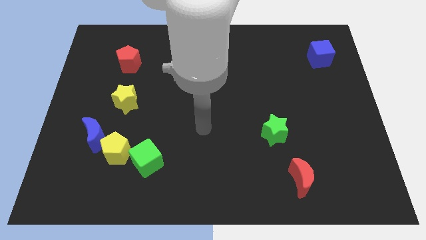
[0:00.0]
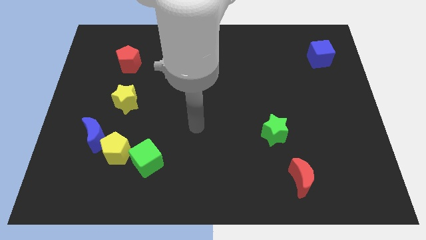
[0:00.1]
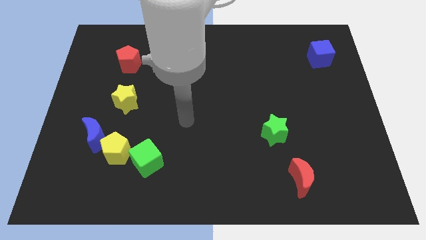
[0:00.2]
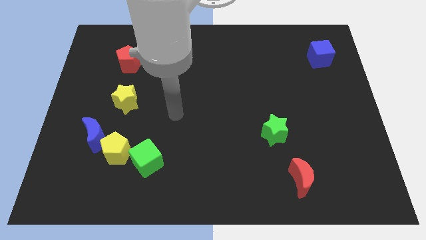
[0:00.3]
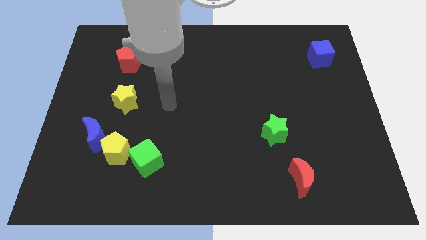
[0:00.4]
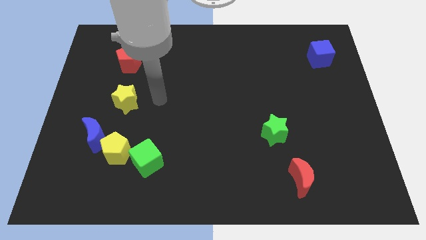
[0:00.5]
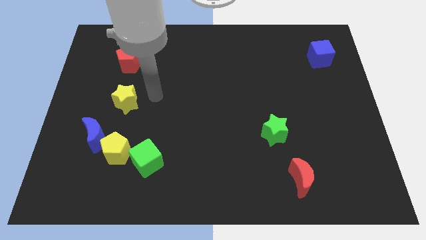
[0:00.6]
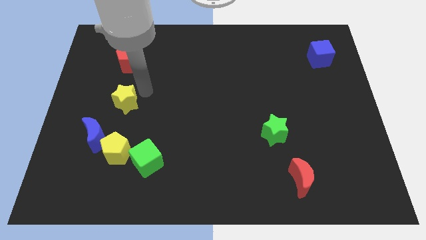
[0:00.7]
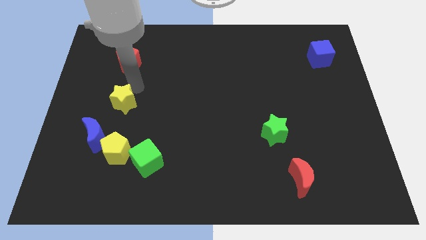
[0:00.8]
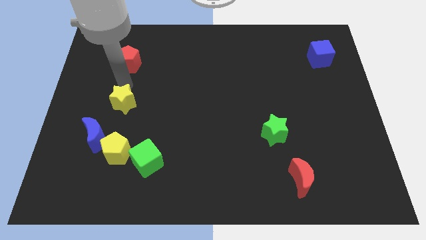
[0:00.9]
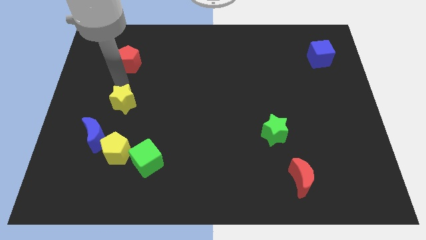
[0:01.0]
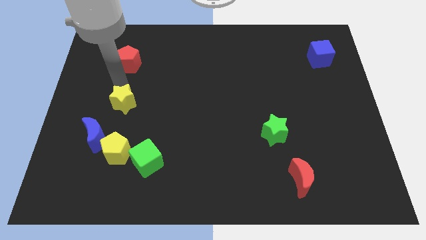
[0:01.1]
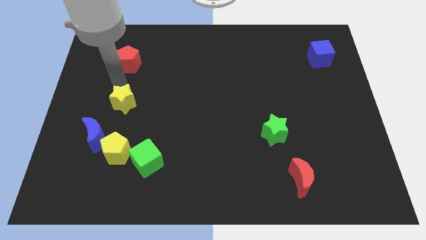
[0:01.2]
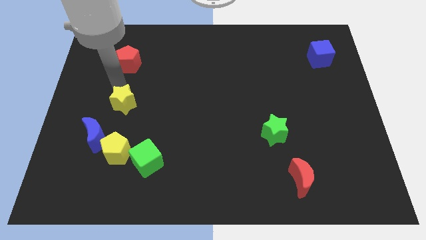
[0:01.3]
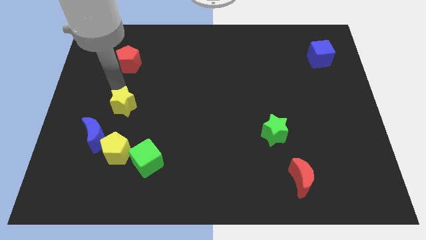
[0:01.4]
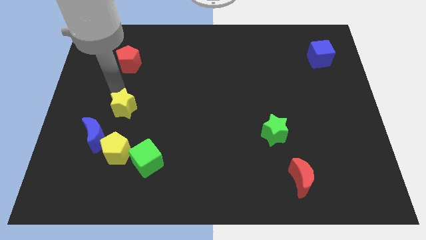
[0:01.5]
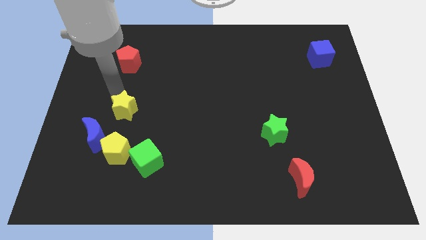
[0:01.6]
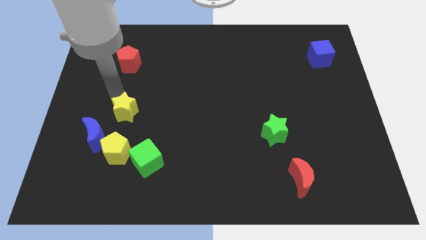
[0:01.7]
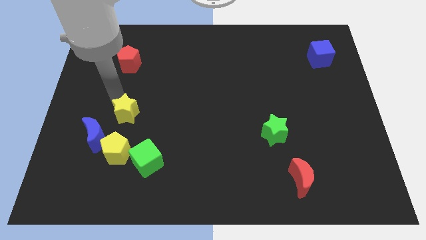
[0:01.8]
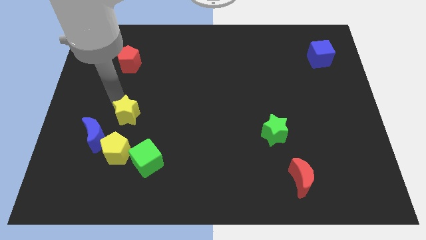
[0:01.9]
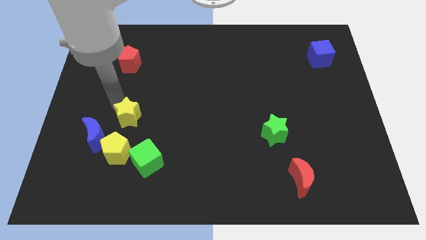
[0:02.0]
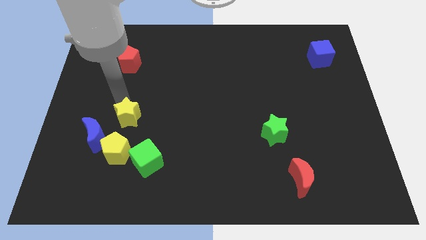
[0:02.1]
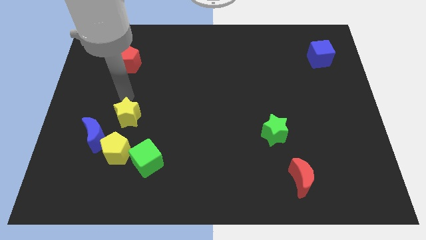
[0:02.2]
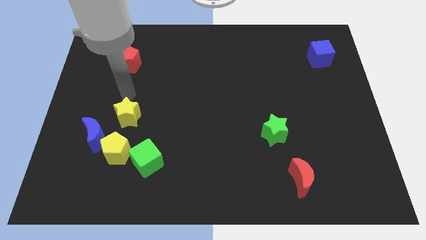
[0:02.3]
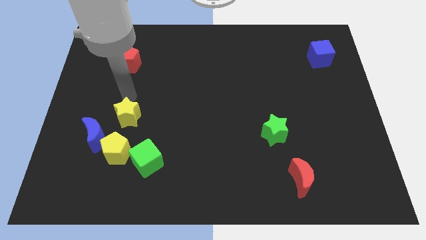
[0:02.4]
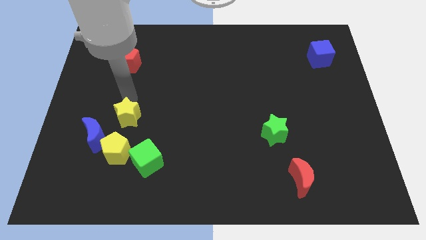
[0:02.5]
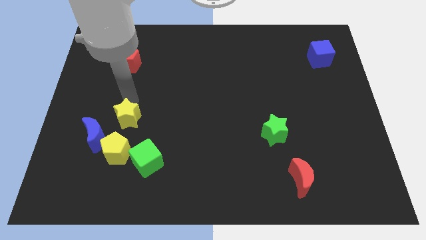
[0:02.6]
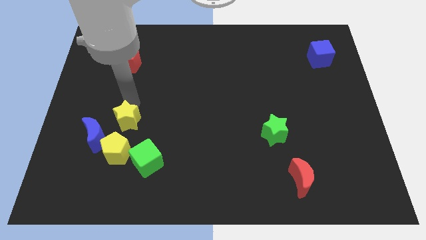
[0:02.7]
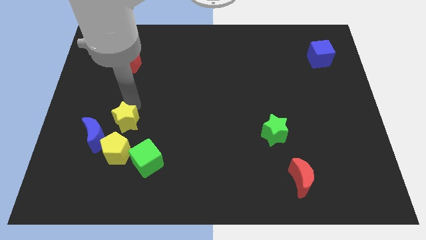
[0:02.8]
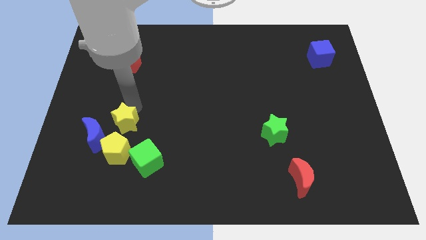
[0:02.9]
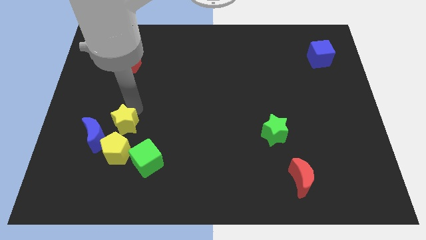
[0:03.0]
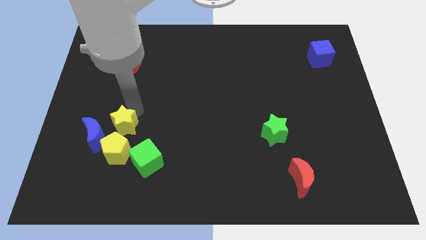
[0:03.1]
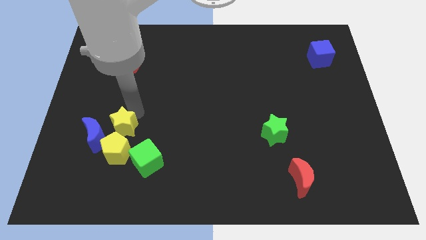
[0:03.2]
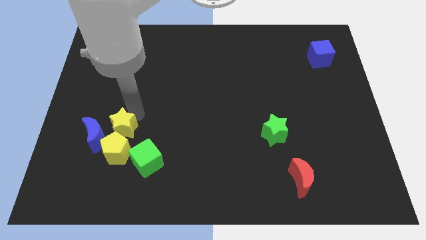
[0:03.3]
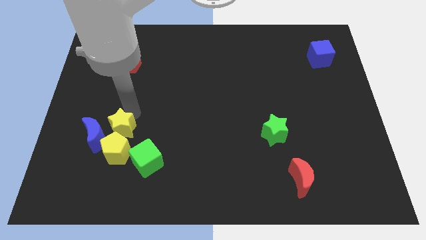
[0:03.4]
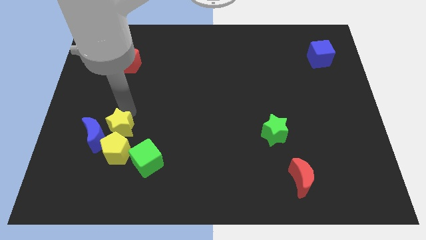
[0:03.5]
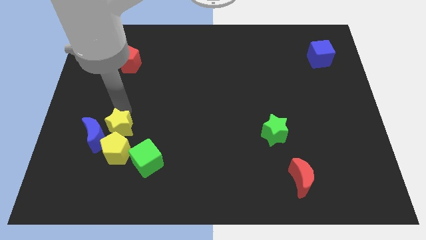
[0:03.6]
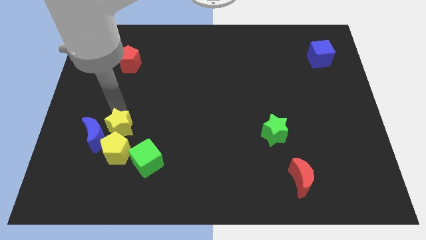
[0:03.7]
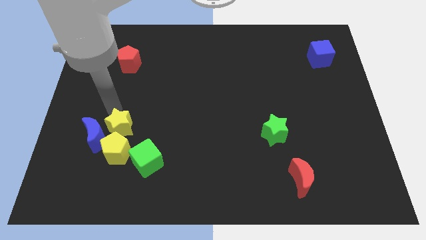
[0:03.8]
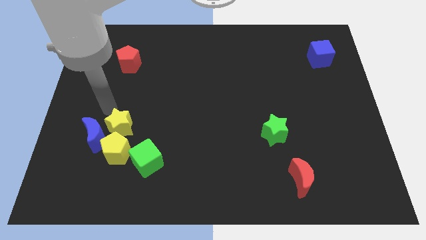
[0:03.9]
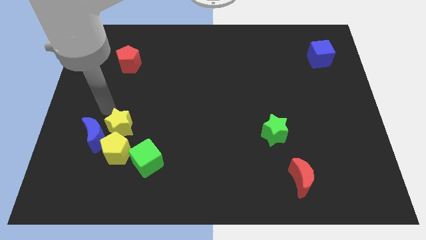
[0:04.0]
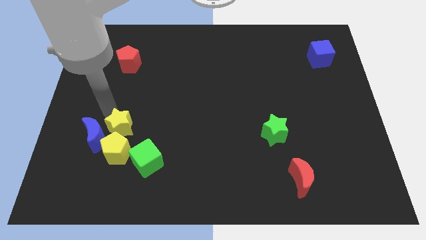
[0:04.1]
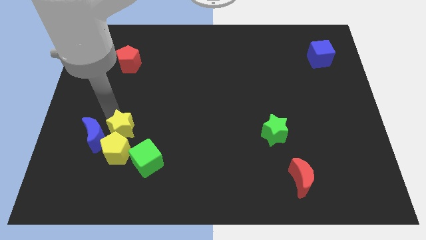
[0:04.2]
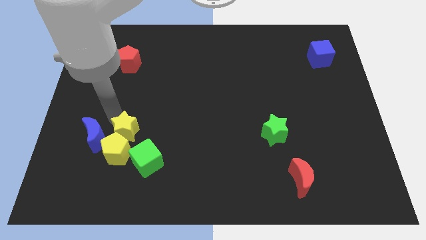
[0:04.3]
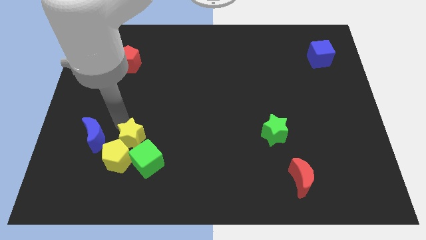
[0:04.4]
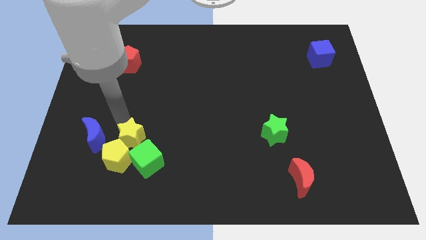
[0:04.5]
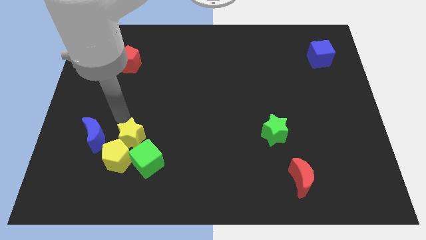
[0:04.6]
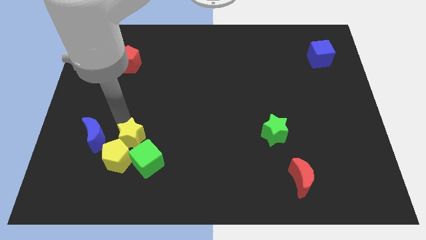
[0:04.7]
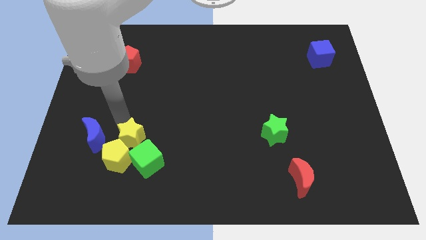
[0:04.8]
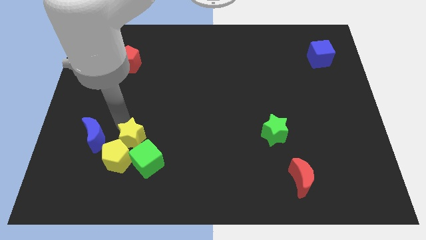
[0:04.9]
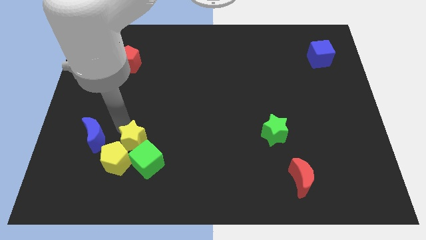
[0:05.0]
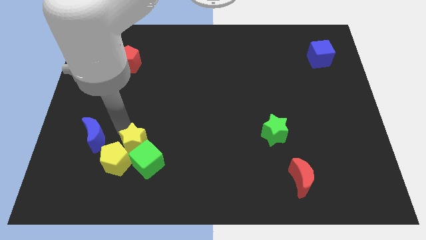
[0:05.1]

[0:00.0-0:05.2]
move the yellow star close to the green cube

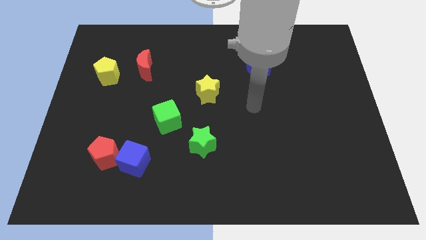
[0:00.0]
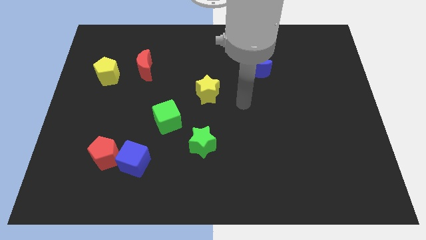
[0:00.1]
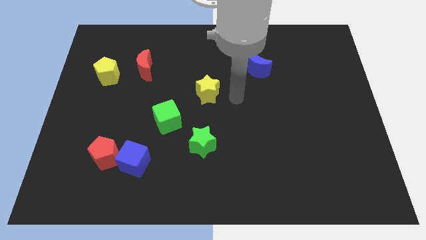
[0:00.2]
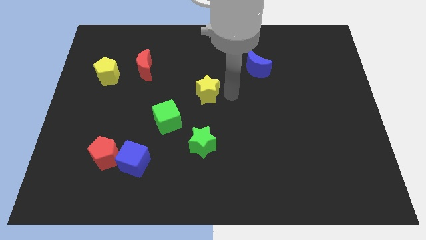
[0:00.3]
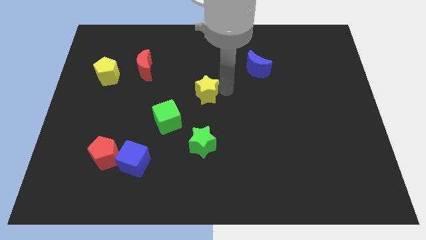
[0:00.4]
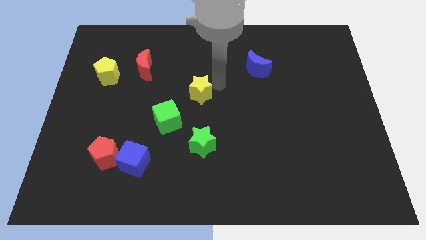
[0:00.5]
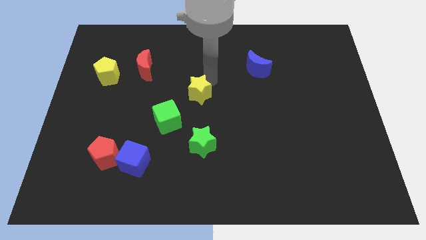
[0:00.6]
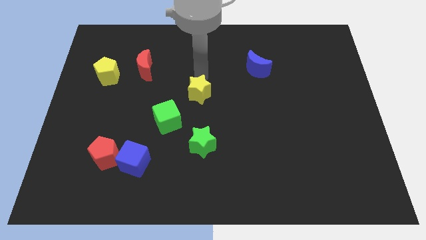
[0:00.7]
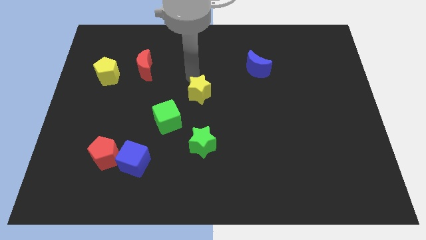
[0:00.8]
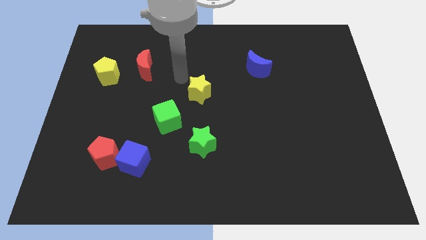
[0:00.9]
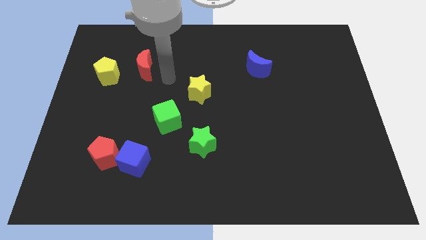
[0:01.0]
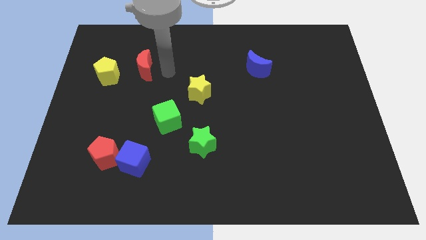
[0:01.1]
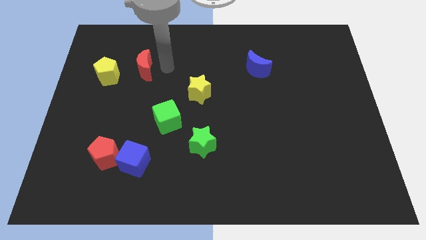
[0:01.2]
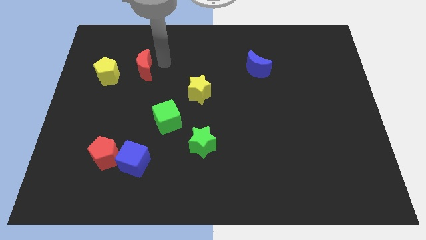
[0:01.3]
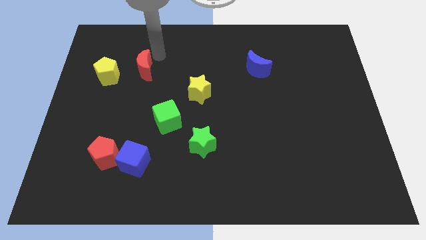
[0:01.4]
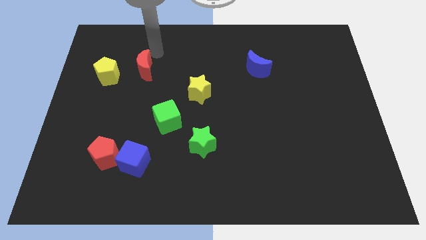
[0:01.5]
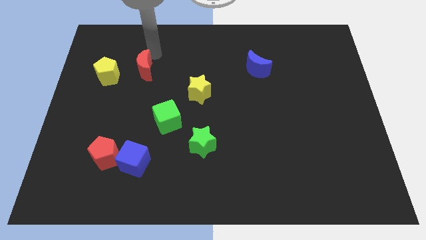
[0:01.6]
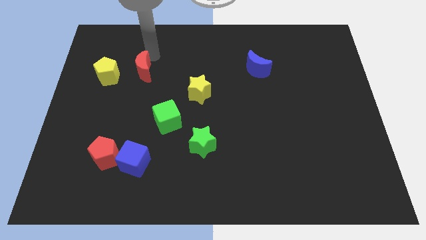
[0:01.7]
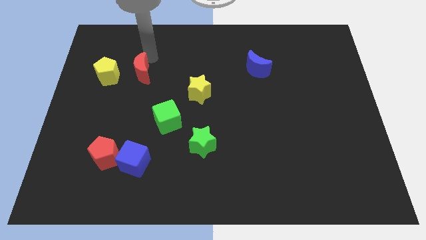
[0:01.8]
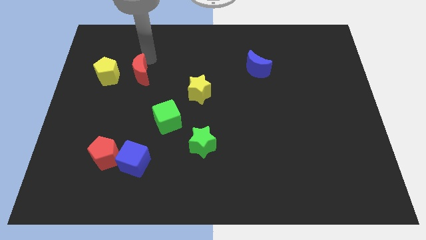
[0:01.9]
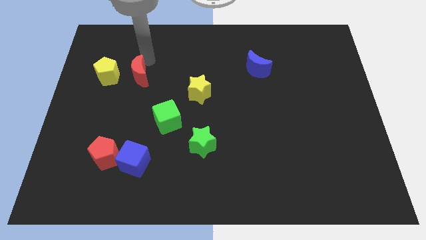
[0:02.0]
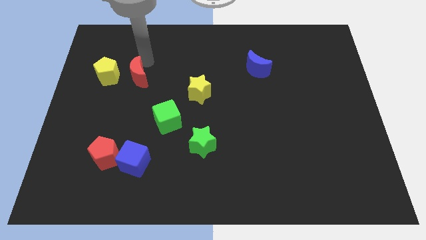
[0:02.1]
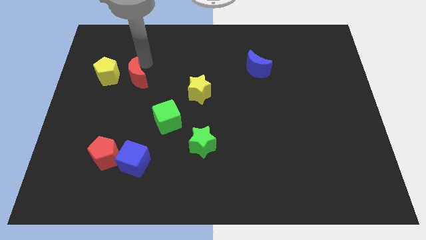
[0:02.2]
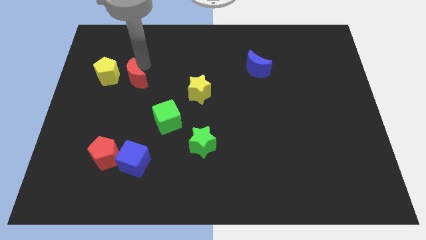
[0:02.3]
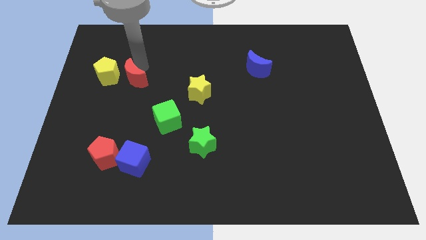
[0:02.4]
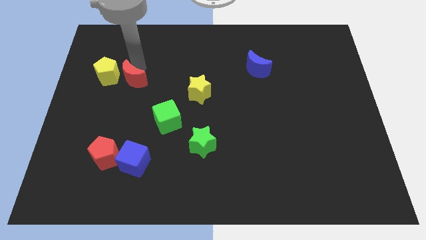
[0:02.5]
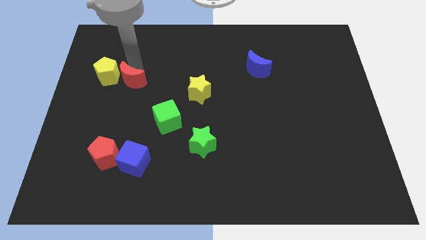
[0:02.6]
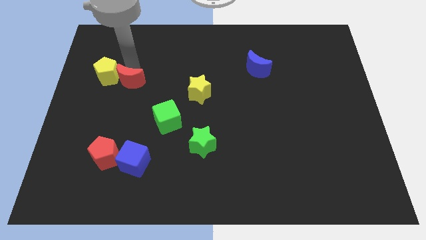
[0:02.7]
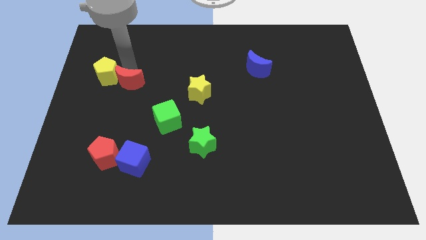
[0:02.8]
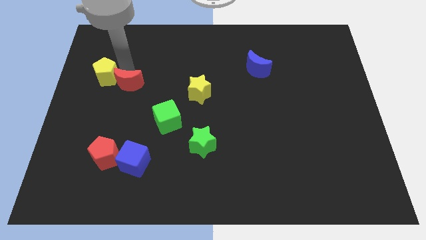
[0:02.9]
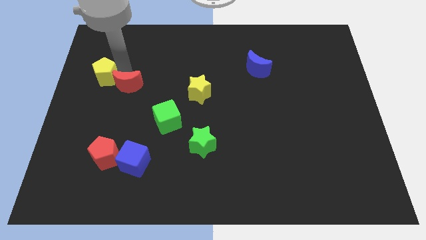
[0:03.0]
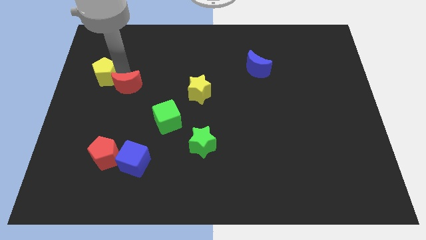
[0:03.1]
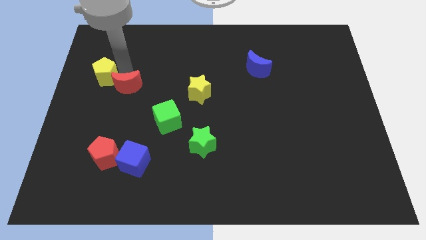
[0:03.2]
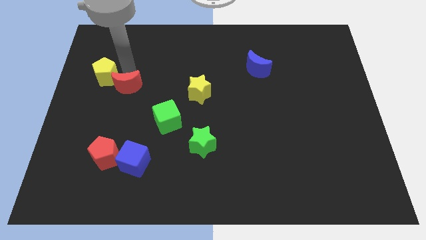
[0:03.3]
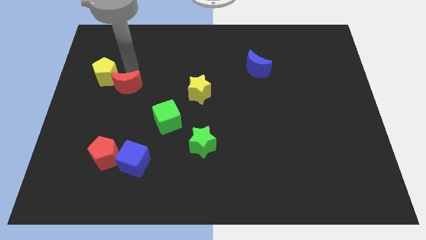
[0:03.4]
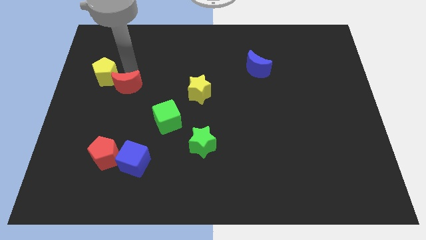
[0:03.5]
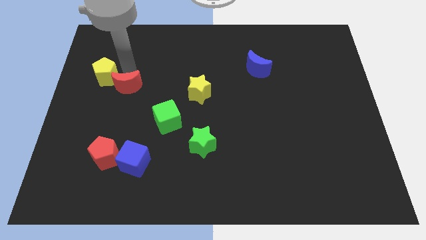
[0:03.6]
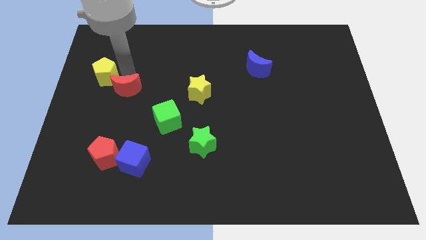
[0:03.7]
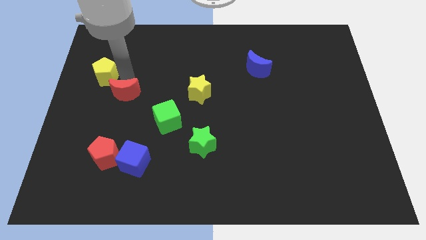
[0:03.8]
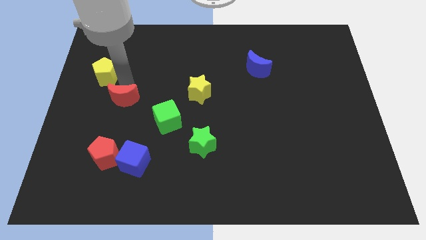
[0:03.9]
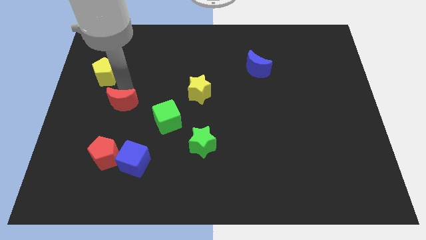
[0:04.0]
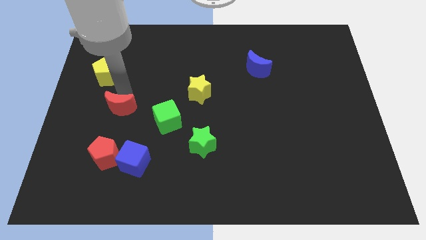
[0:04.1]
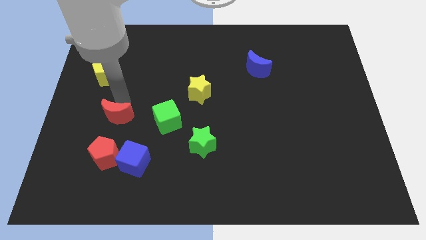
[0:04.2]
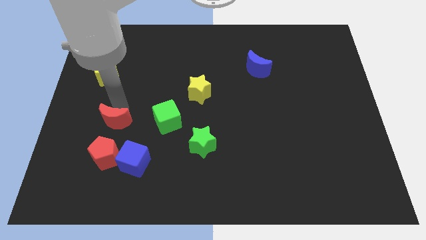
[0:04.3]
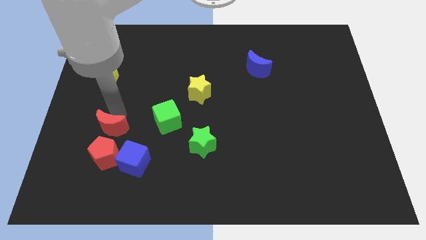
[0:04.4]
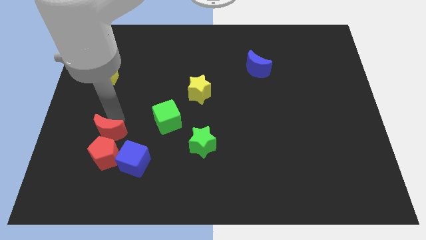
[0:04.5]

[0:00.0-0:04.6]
push the red moon close to the red pentagon
